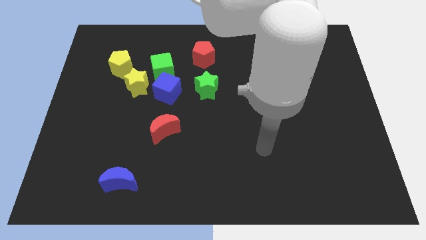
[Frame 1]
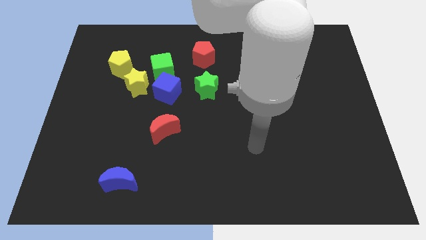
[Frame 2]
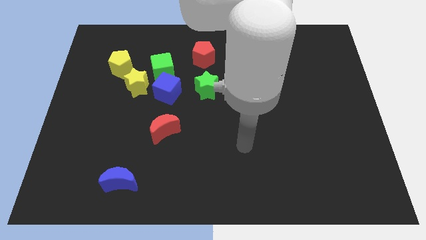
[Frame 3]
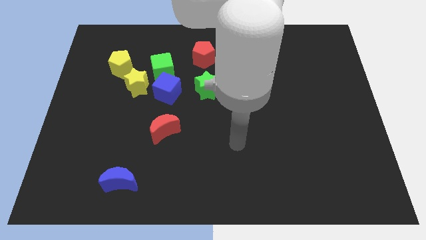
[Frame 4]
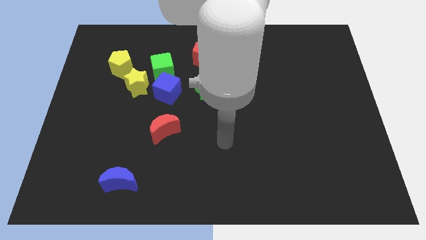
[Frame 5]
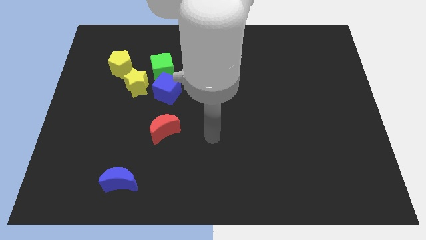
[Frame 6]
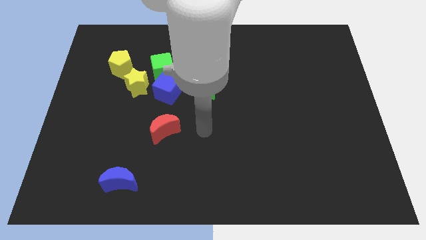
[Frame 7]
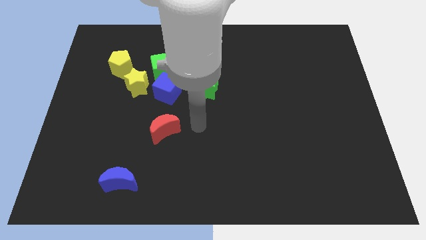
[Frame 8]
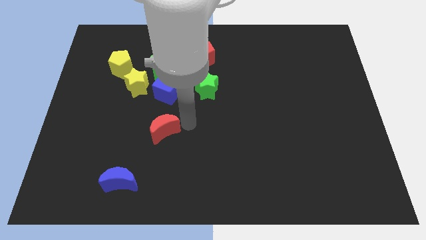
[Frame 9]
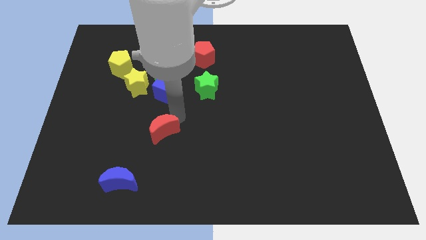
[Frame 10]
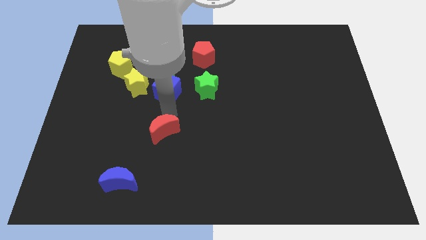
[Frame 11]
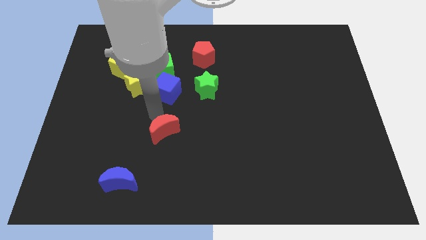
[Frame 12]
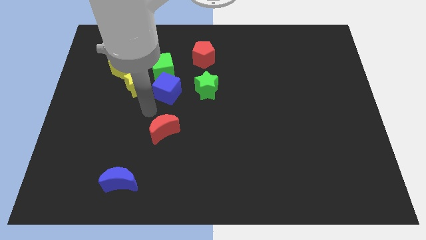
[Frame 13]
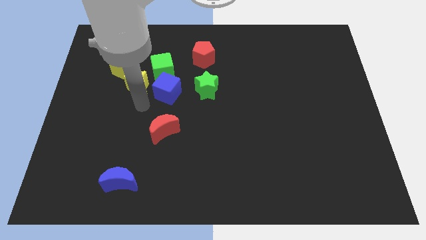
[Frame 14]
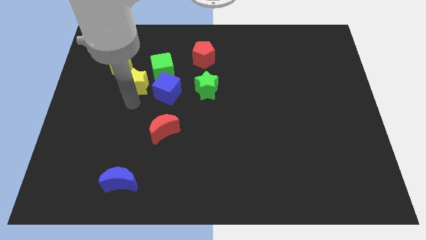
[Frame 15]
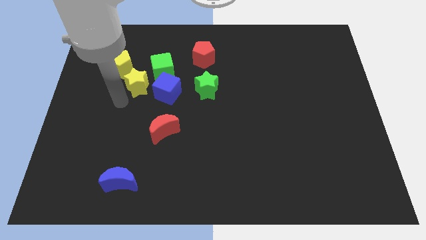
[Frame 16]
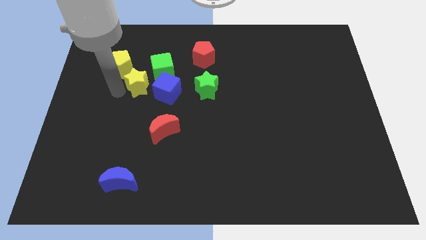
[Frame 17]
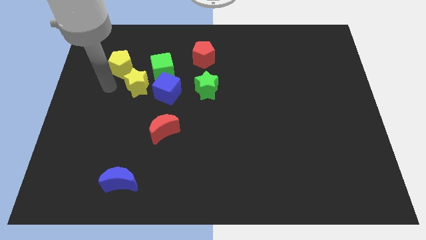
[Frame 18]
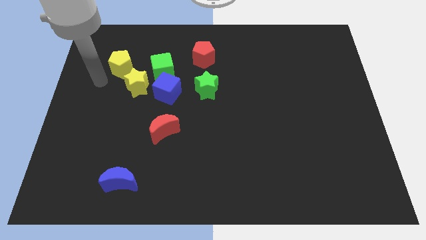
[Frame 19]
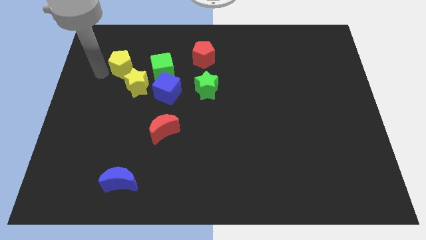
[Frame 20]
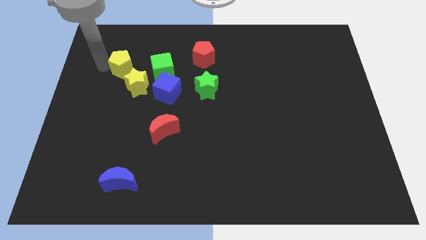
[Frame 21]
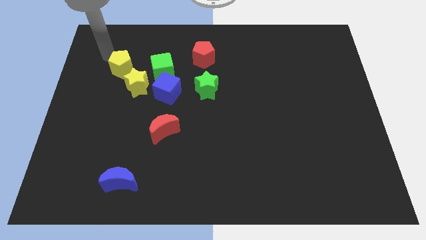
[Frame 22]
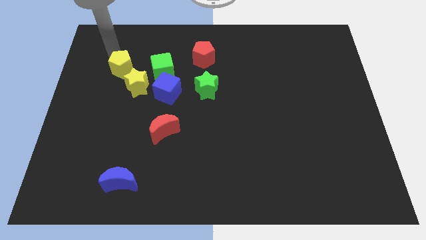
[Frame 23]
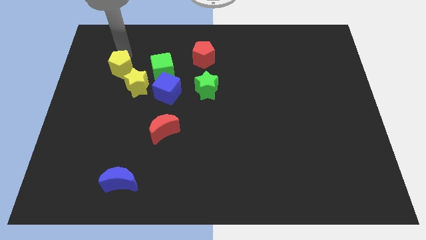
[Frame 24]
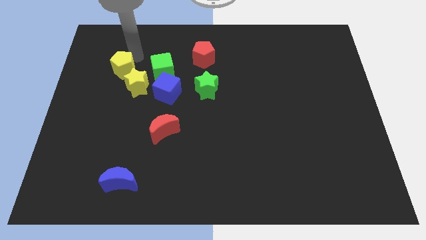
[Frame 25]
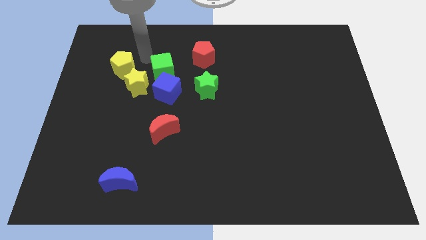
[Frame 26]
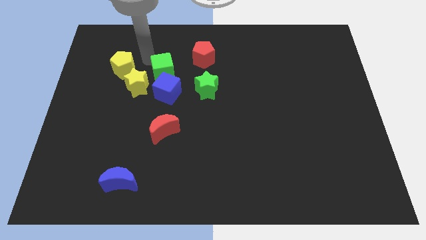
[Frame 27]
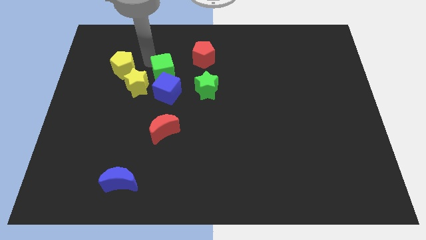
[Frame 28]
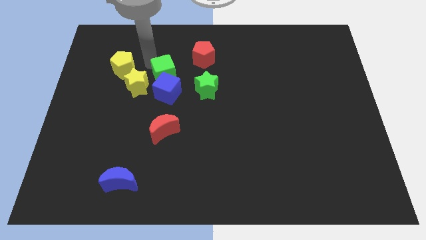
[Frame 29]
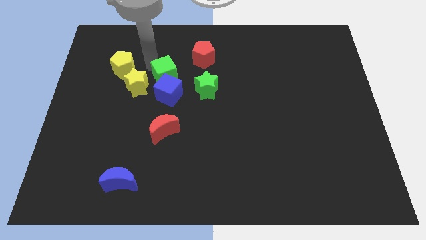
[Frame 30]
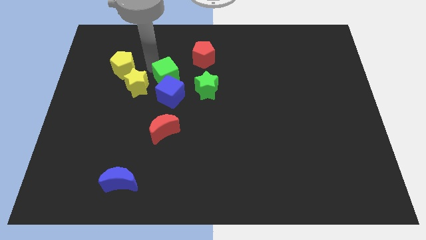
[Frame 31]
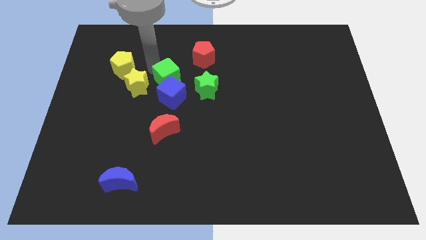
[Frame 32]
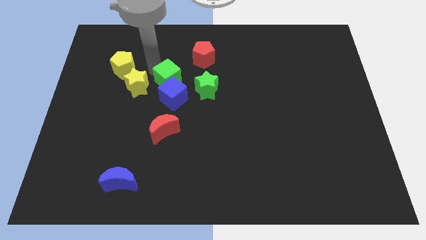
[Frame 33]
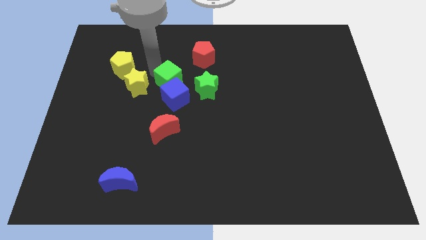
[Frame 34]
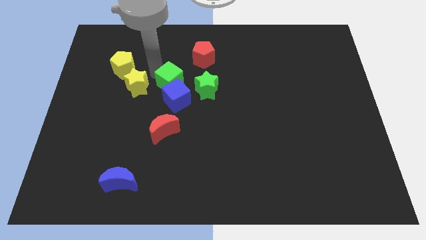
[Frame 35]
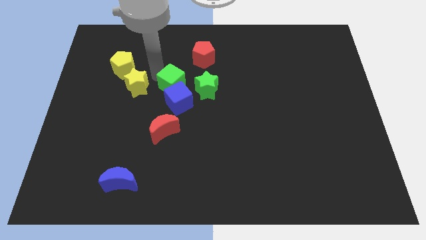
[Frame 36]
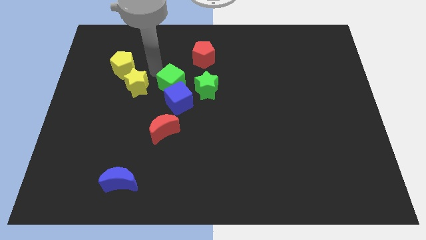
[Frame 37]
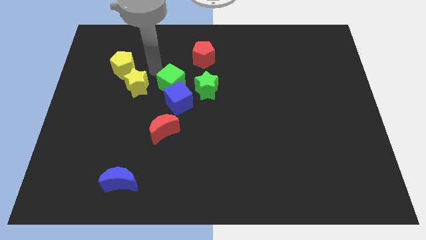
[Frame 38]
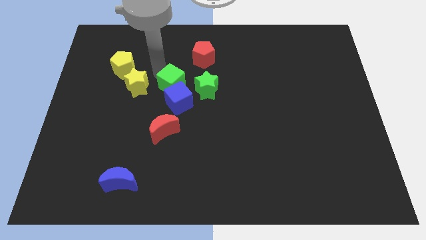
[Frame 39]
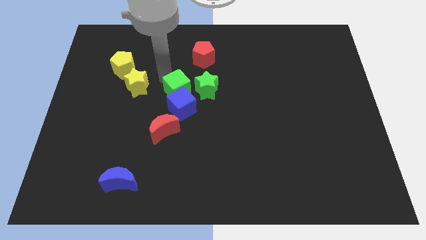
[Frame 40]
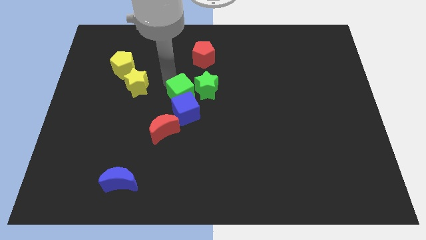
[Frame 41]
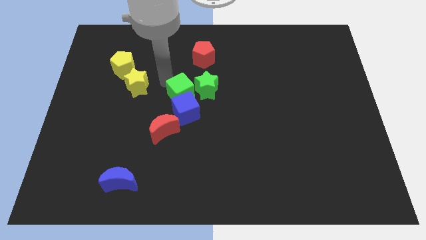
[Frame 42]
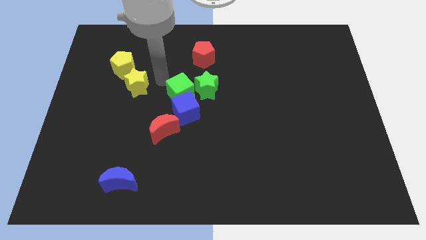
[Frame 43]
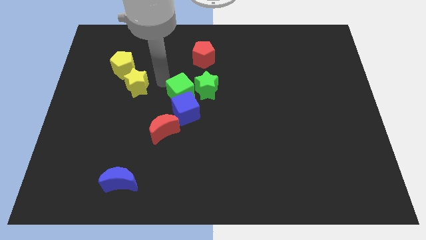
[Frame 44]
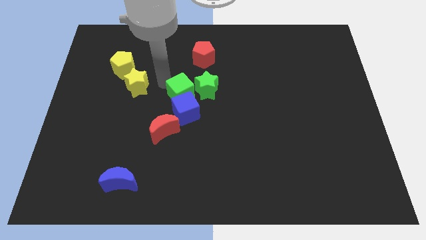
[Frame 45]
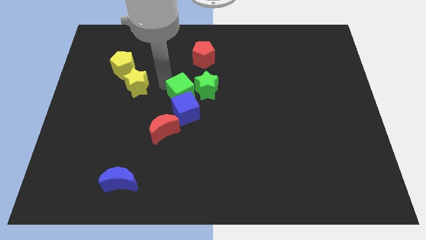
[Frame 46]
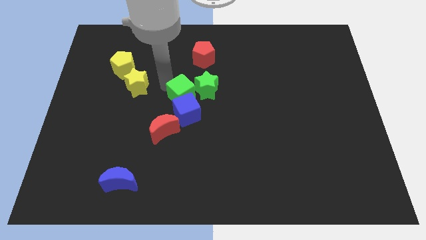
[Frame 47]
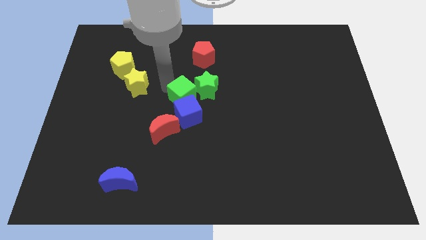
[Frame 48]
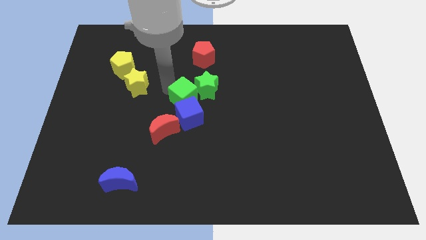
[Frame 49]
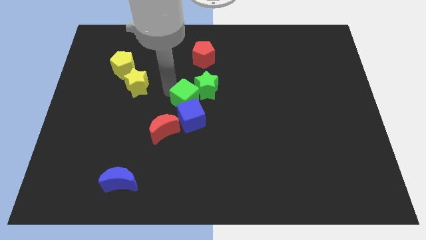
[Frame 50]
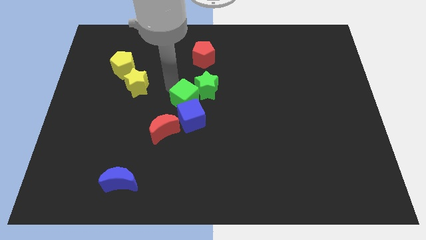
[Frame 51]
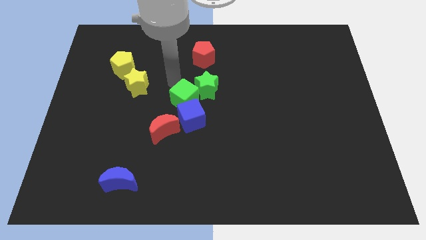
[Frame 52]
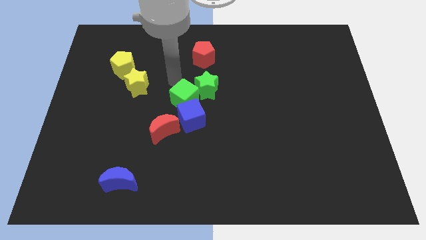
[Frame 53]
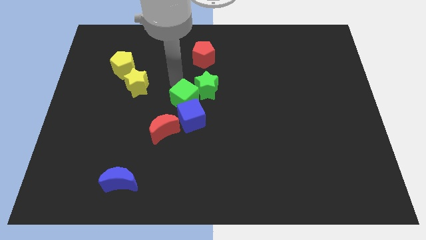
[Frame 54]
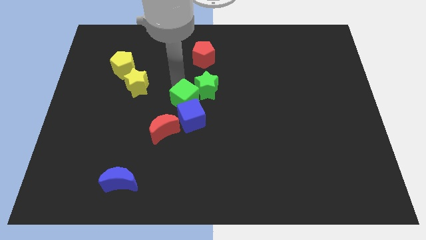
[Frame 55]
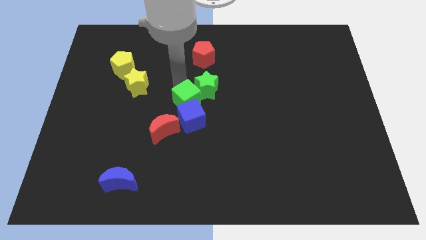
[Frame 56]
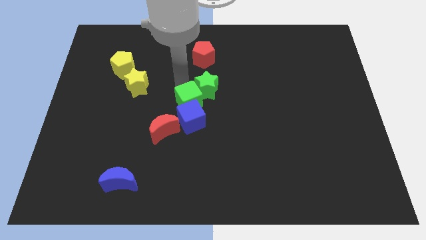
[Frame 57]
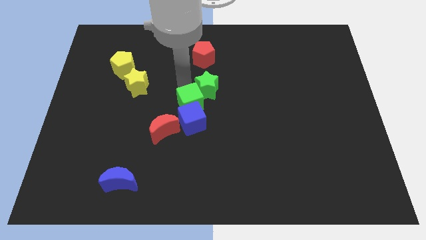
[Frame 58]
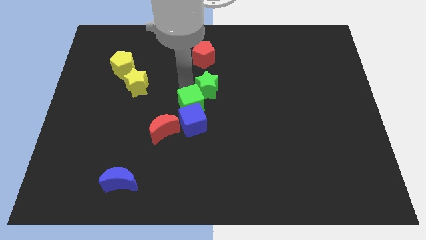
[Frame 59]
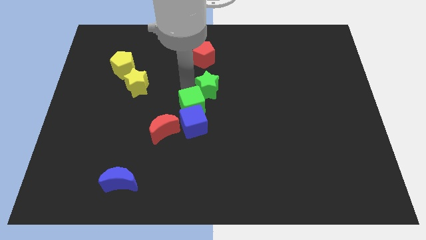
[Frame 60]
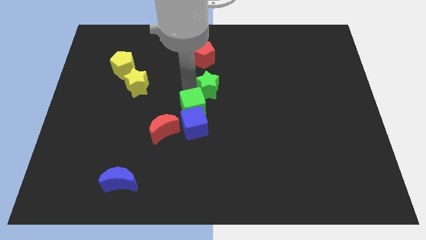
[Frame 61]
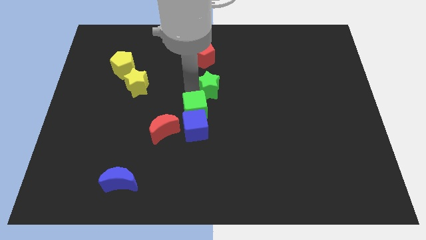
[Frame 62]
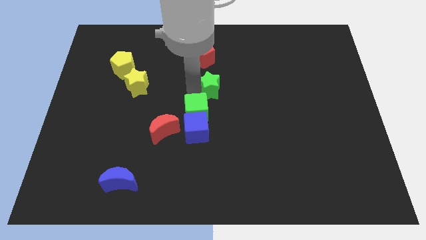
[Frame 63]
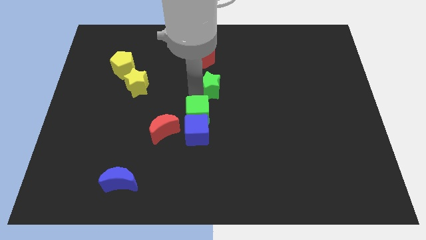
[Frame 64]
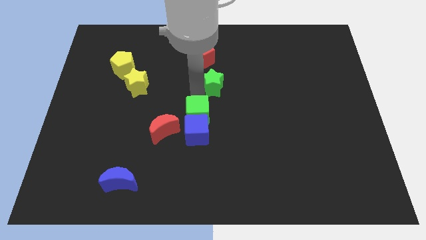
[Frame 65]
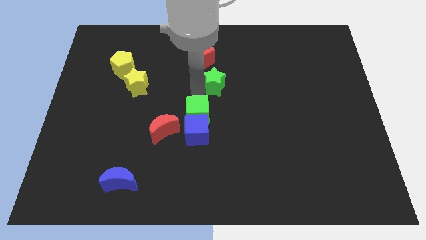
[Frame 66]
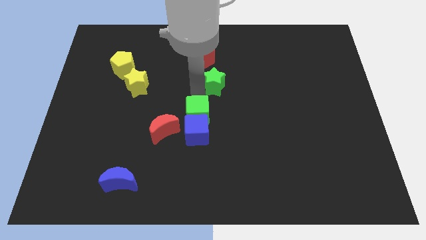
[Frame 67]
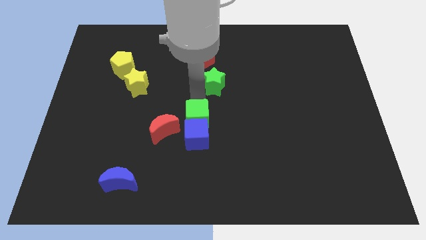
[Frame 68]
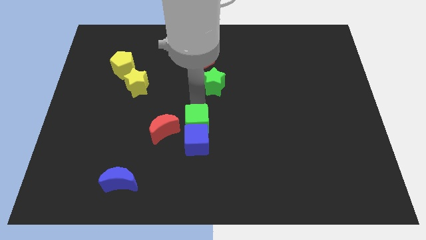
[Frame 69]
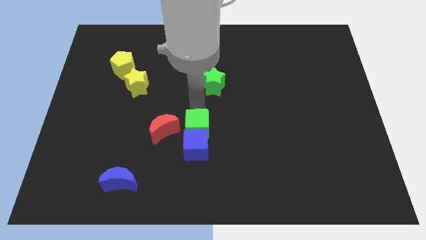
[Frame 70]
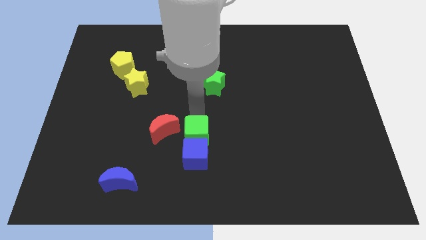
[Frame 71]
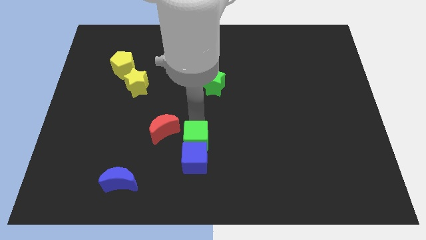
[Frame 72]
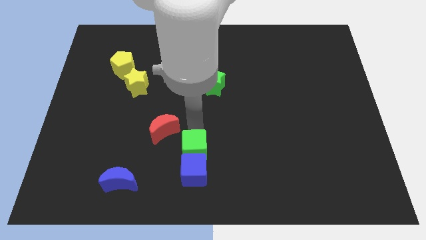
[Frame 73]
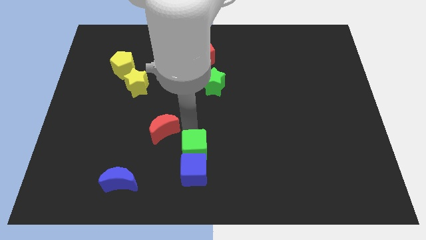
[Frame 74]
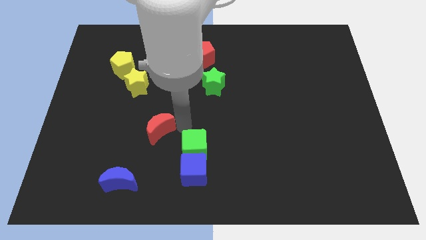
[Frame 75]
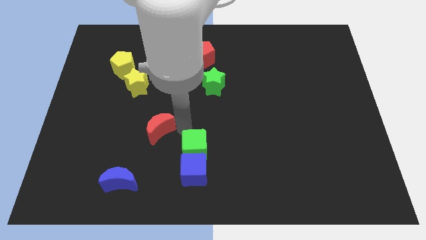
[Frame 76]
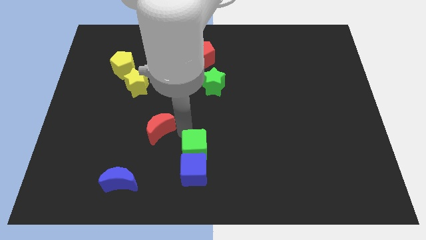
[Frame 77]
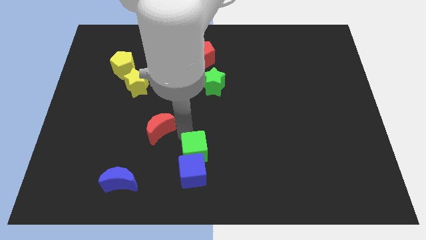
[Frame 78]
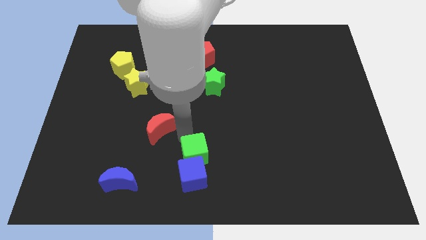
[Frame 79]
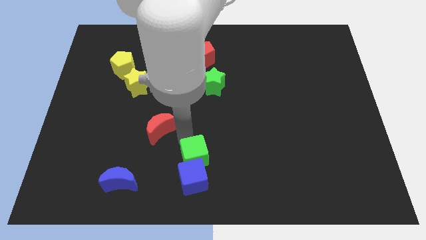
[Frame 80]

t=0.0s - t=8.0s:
move the green cube to the bottom side
